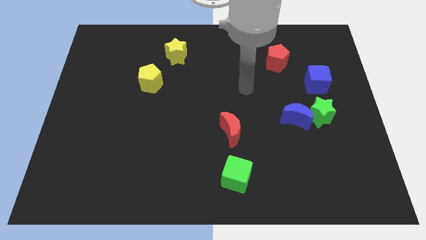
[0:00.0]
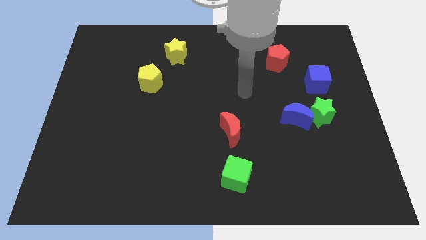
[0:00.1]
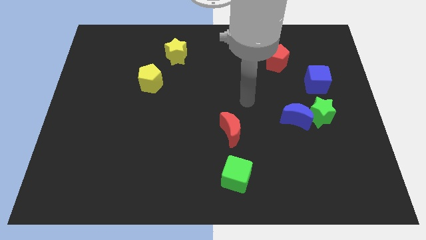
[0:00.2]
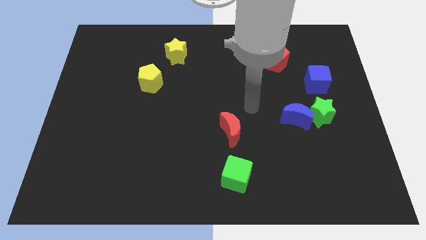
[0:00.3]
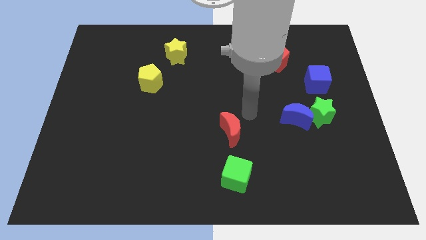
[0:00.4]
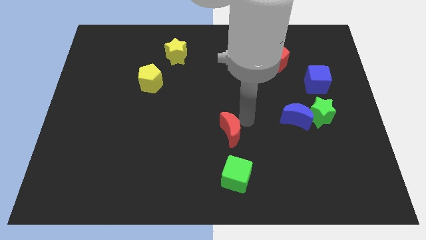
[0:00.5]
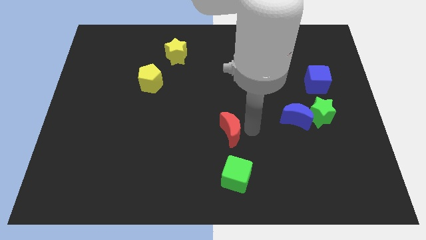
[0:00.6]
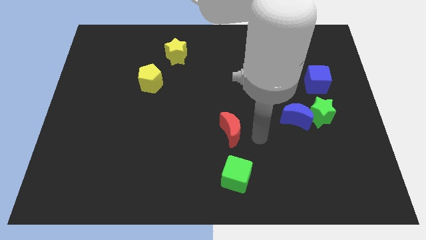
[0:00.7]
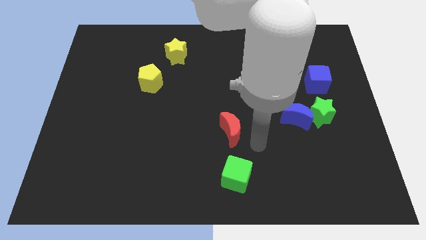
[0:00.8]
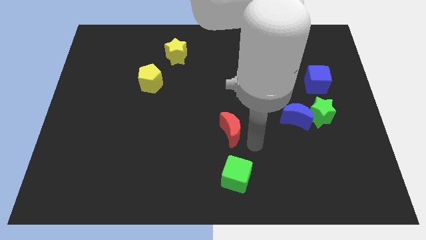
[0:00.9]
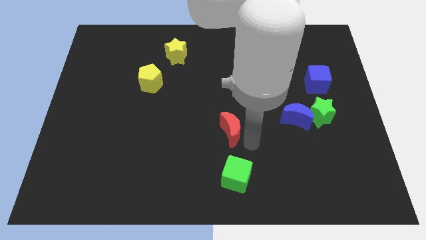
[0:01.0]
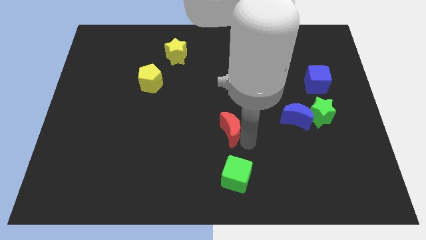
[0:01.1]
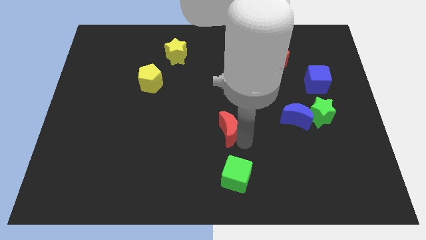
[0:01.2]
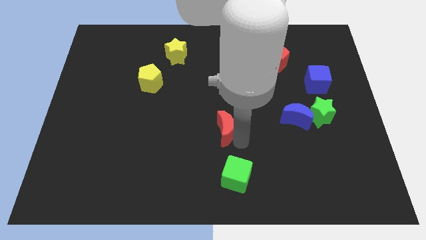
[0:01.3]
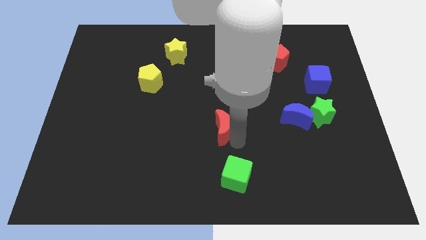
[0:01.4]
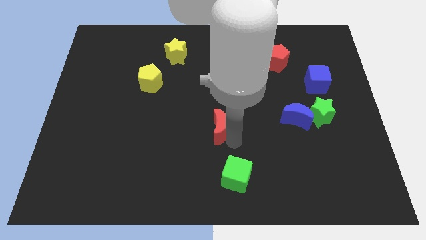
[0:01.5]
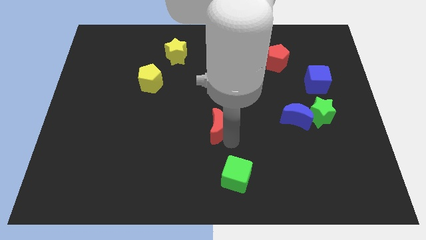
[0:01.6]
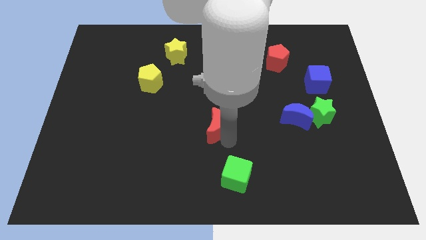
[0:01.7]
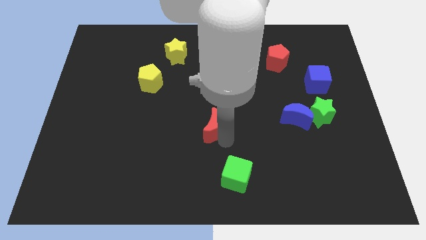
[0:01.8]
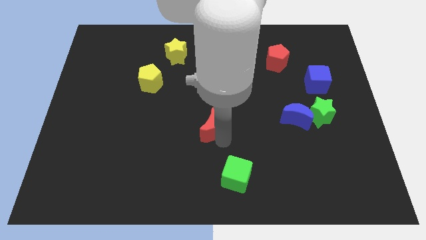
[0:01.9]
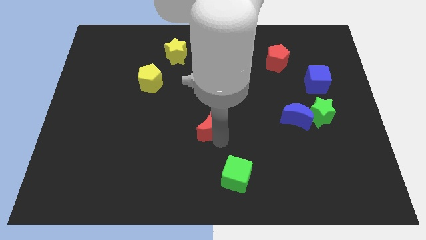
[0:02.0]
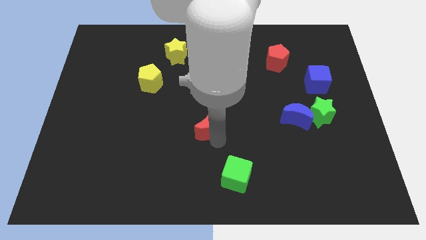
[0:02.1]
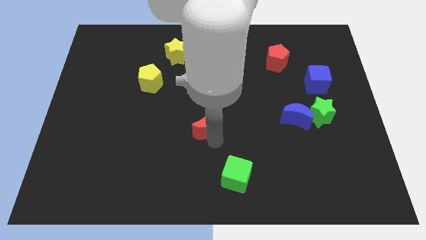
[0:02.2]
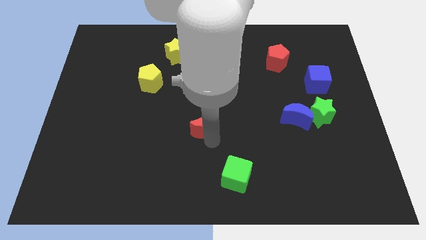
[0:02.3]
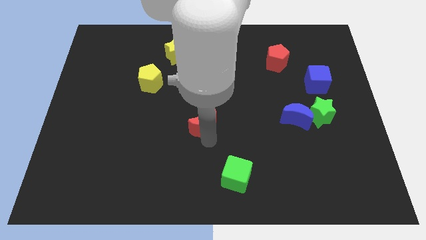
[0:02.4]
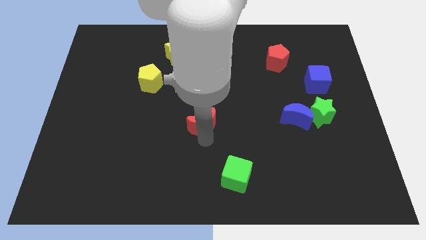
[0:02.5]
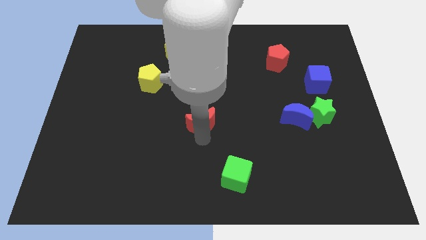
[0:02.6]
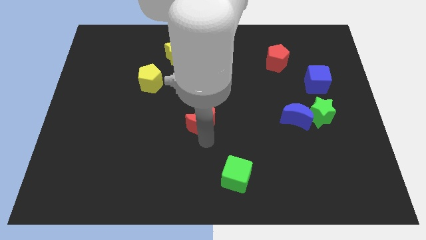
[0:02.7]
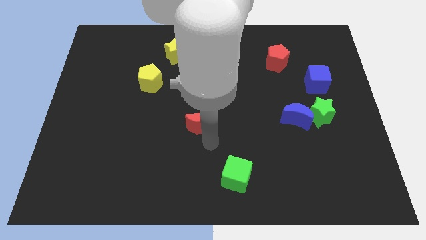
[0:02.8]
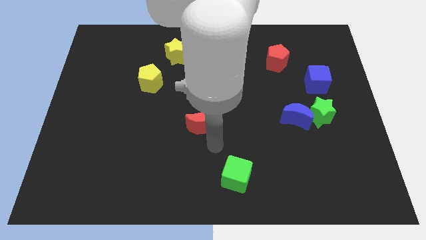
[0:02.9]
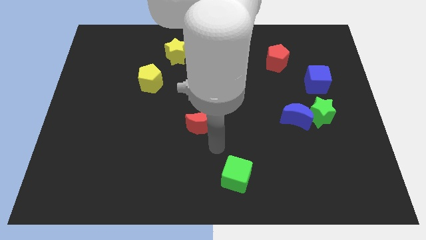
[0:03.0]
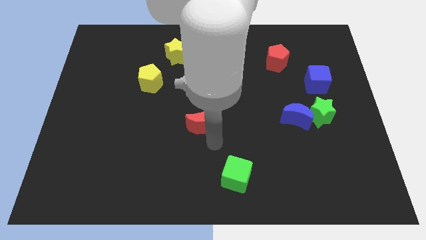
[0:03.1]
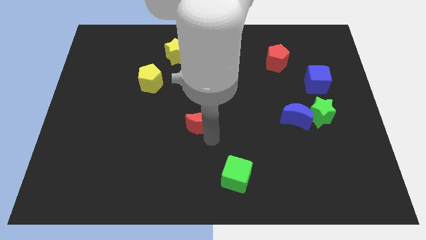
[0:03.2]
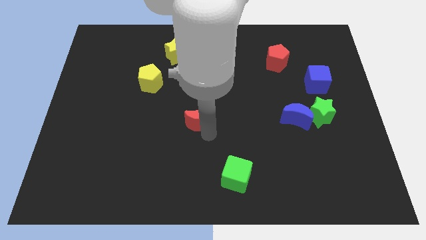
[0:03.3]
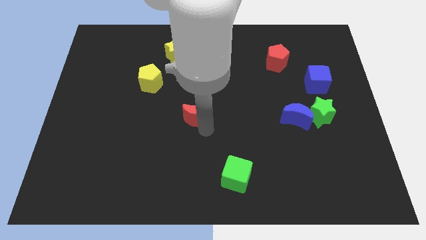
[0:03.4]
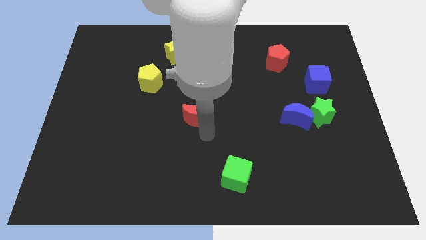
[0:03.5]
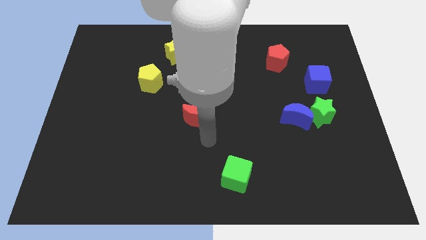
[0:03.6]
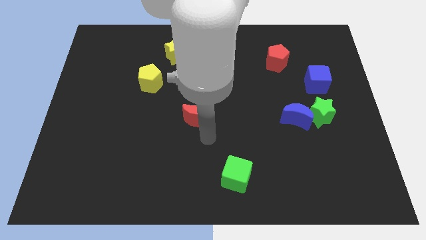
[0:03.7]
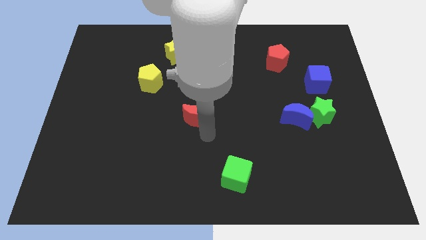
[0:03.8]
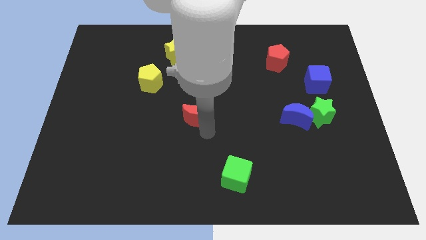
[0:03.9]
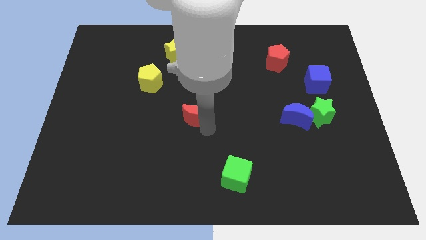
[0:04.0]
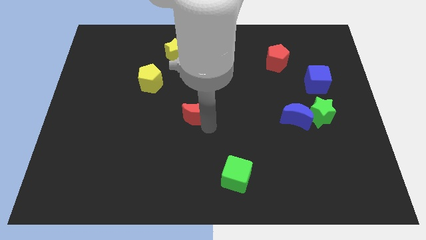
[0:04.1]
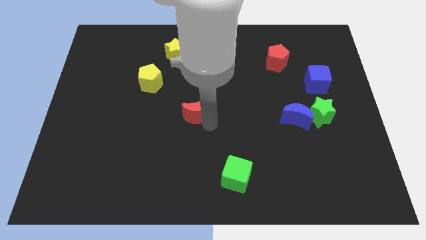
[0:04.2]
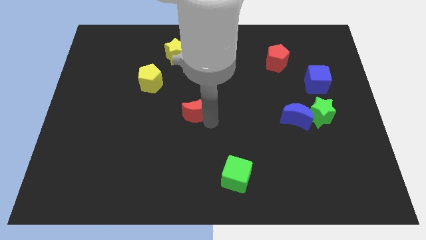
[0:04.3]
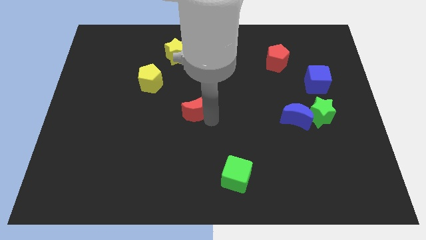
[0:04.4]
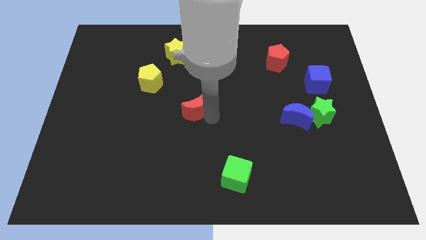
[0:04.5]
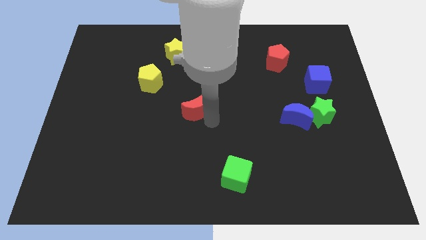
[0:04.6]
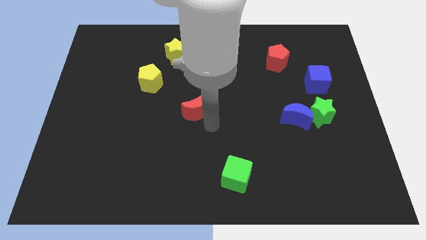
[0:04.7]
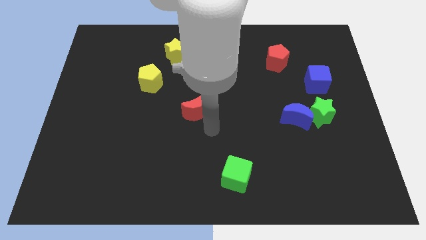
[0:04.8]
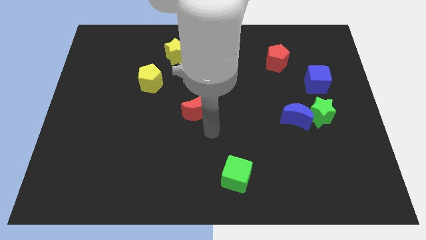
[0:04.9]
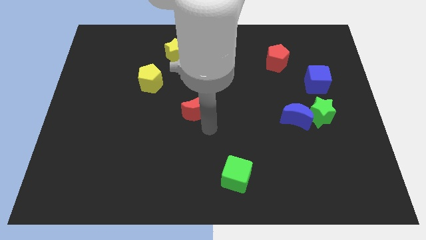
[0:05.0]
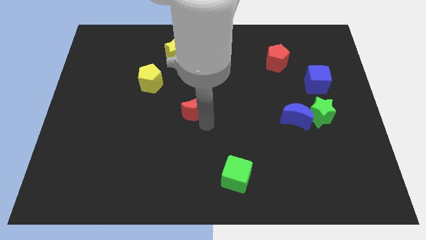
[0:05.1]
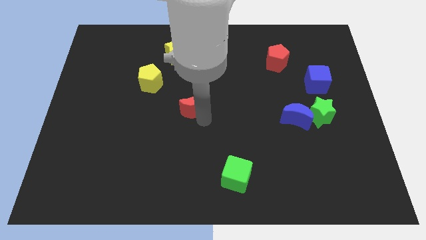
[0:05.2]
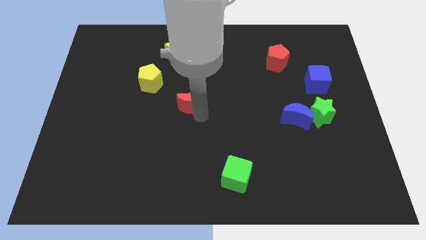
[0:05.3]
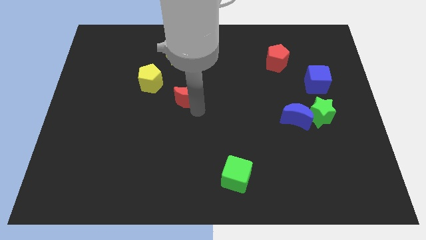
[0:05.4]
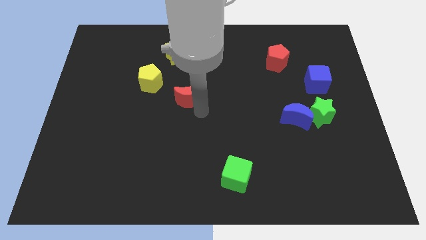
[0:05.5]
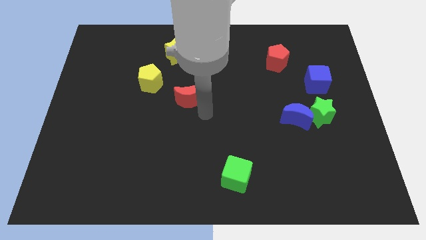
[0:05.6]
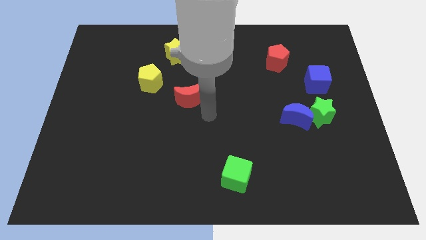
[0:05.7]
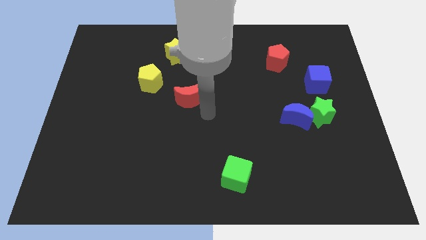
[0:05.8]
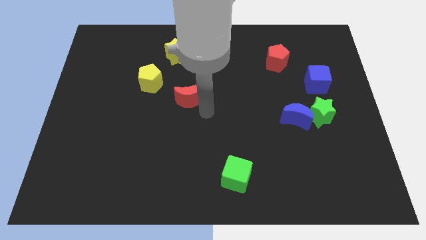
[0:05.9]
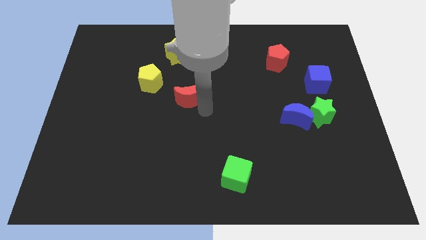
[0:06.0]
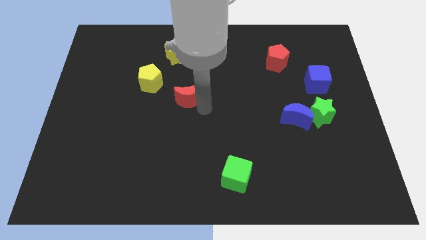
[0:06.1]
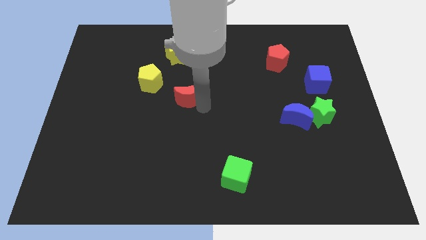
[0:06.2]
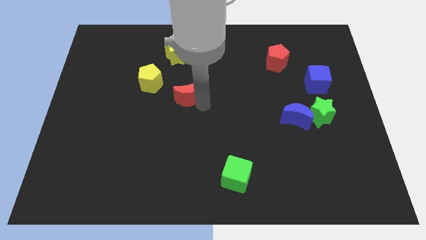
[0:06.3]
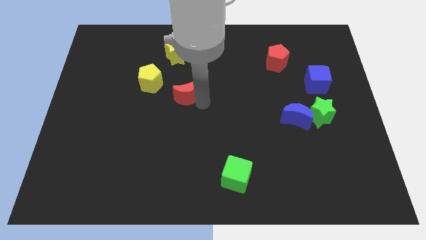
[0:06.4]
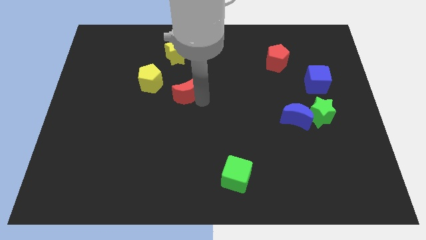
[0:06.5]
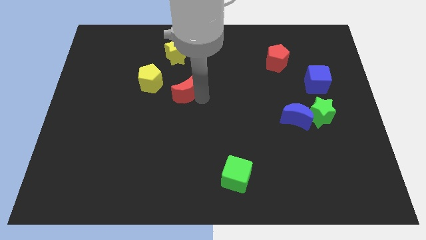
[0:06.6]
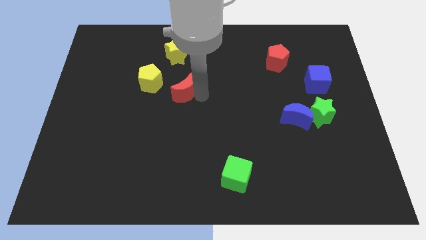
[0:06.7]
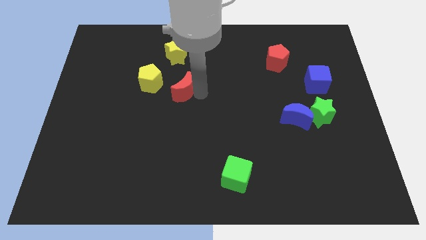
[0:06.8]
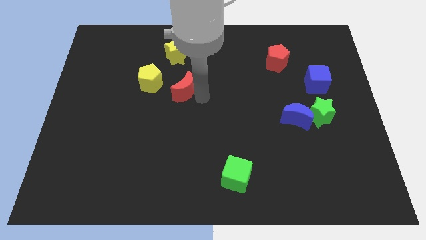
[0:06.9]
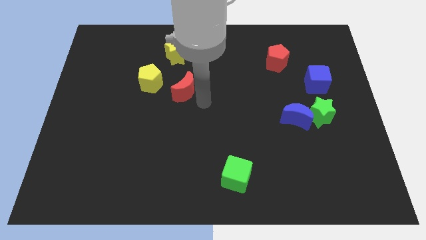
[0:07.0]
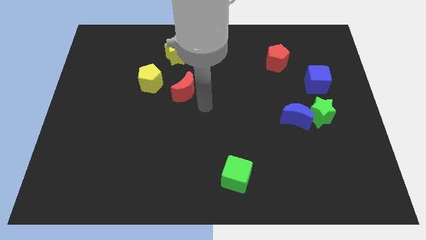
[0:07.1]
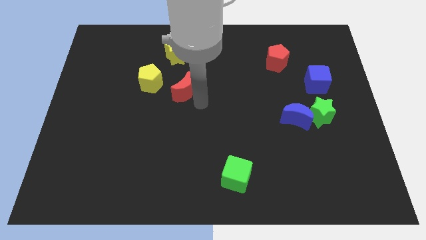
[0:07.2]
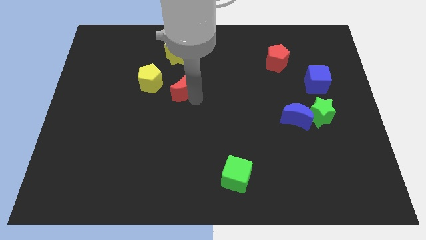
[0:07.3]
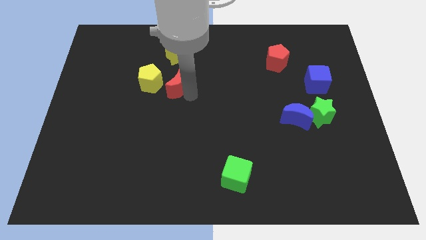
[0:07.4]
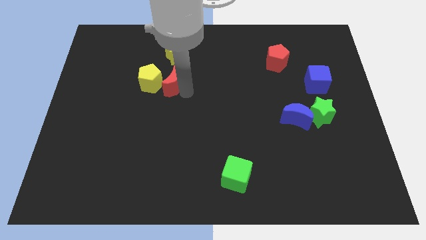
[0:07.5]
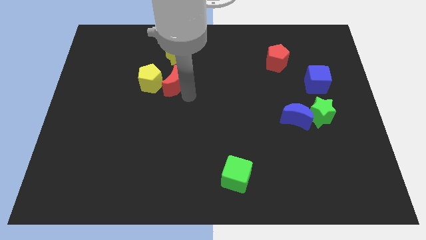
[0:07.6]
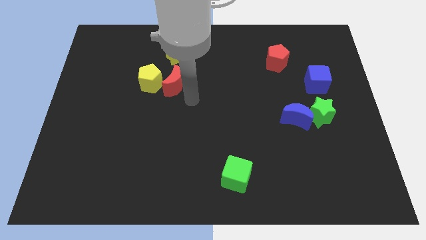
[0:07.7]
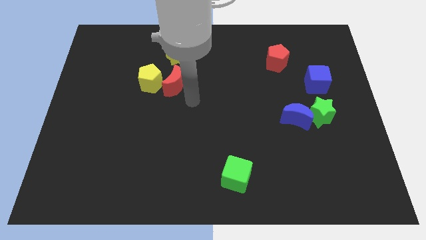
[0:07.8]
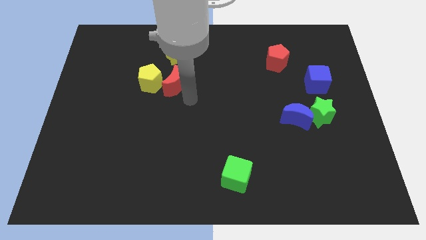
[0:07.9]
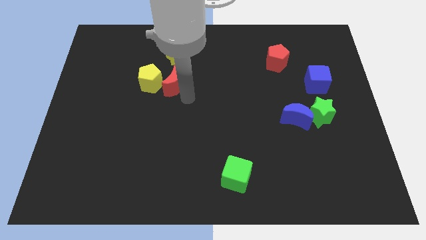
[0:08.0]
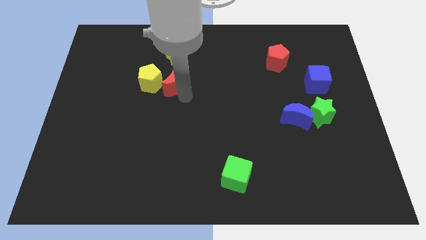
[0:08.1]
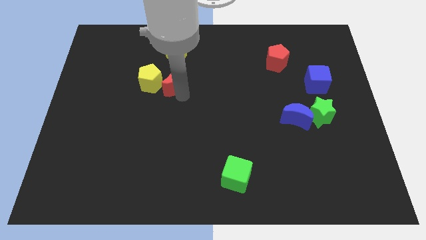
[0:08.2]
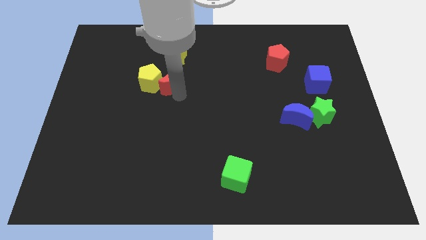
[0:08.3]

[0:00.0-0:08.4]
move the red moon diagonally up and left
